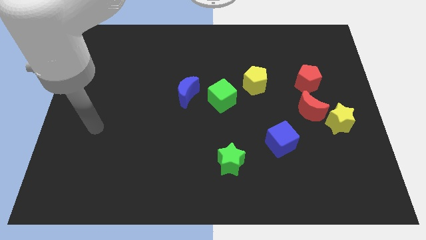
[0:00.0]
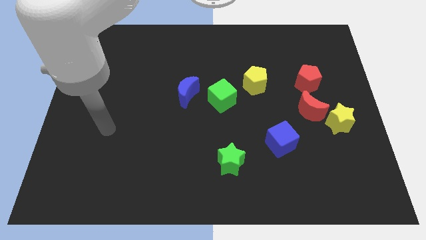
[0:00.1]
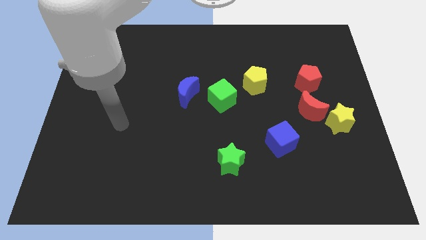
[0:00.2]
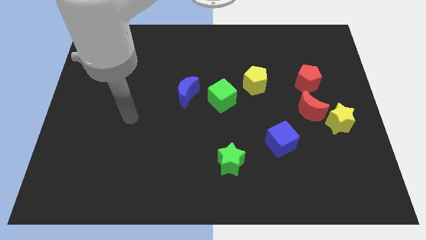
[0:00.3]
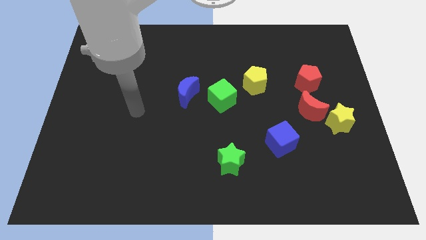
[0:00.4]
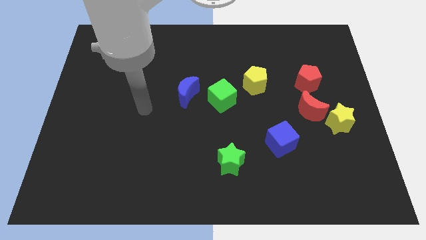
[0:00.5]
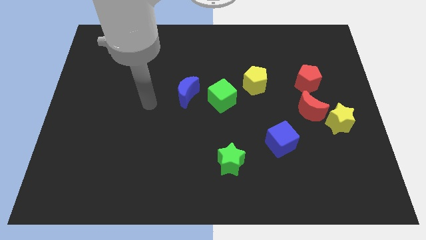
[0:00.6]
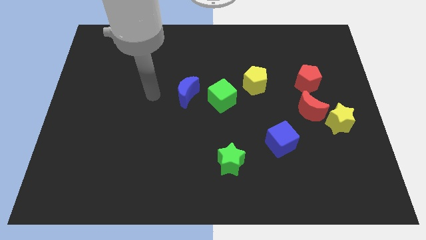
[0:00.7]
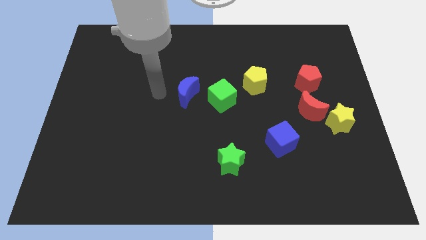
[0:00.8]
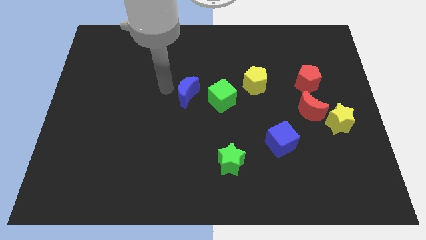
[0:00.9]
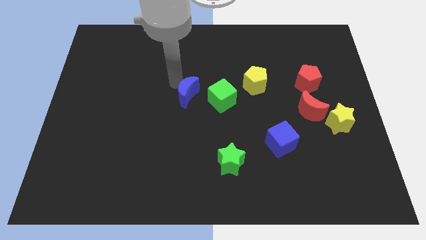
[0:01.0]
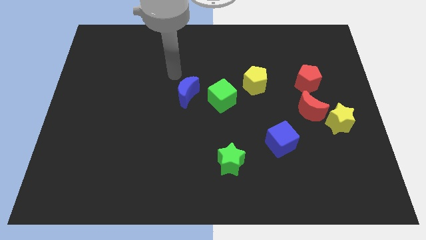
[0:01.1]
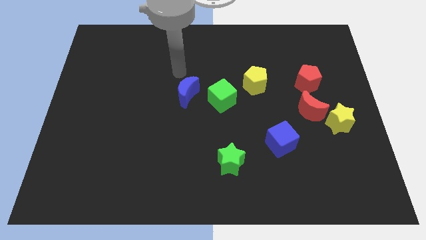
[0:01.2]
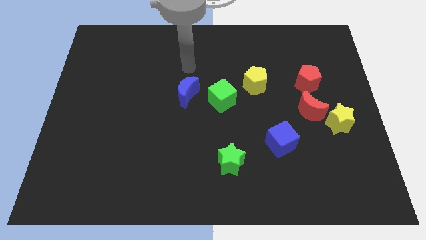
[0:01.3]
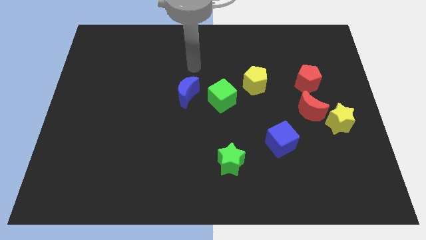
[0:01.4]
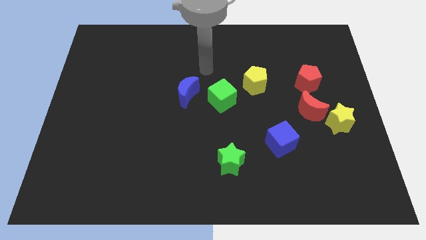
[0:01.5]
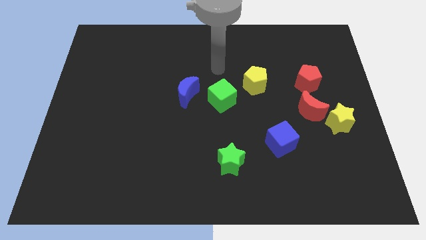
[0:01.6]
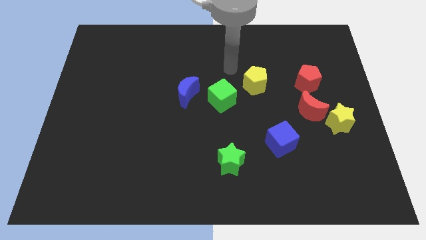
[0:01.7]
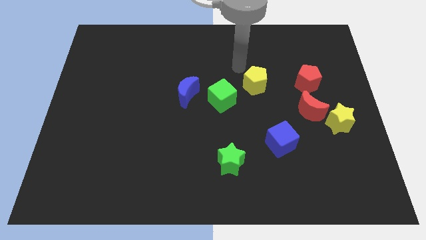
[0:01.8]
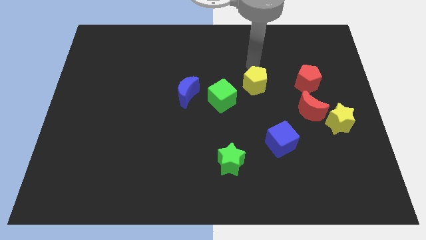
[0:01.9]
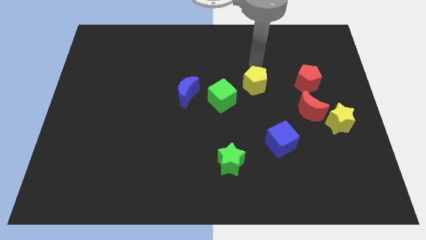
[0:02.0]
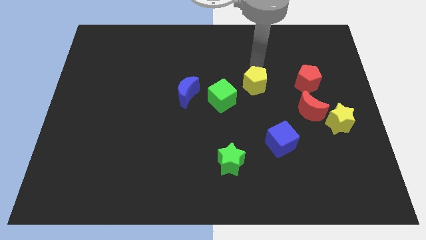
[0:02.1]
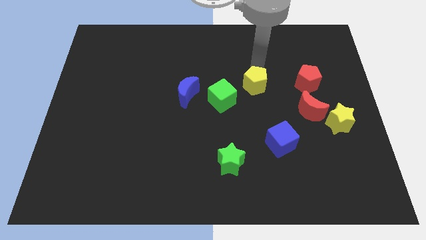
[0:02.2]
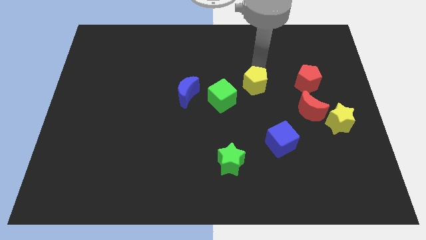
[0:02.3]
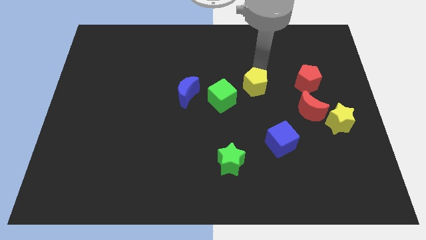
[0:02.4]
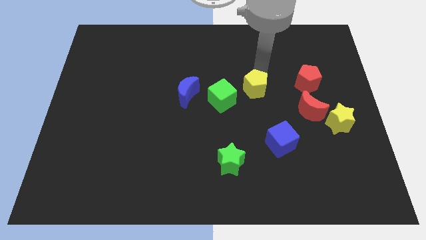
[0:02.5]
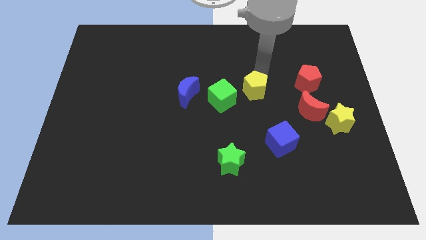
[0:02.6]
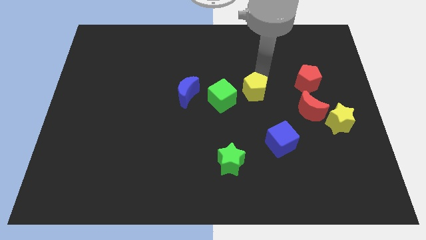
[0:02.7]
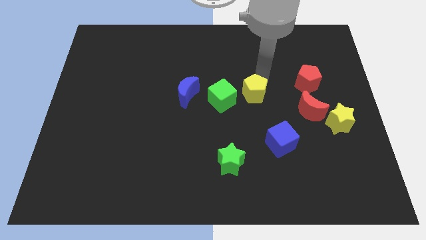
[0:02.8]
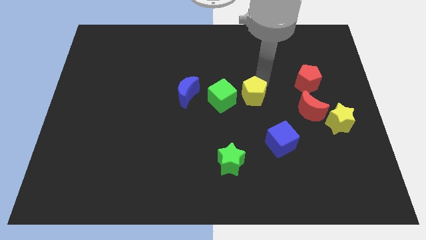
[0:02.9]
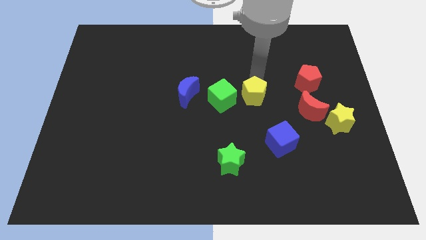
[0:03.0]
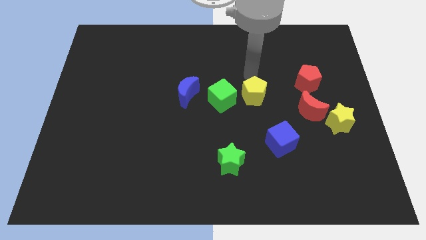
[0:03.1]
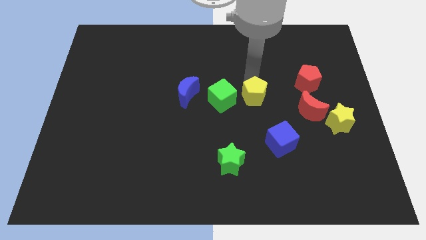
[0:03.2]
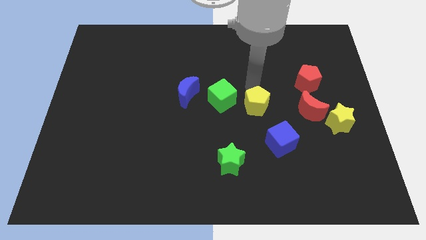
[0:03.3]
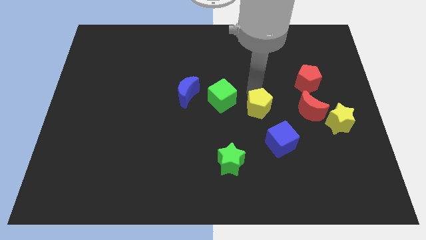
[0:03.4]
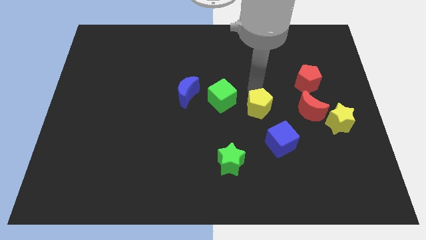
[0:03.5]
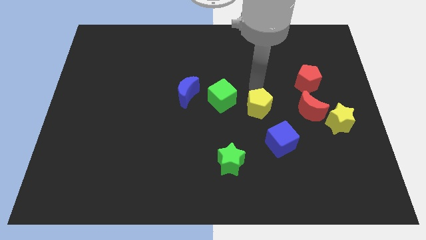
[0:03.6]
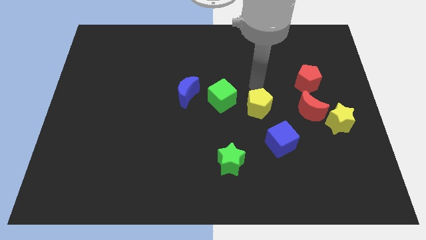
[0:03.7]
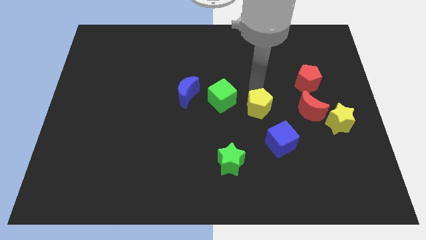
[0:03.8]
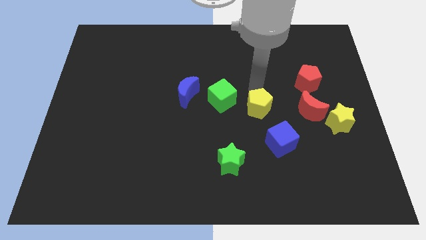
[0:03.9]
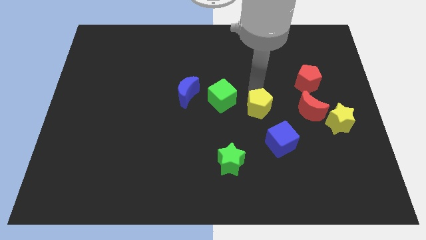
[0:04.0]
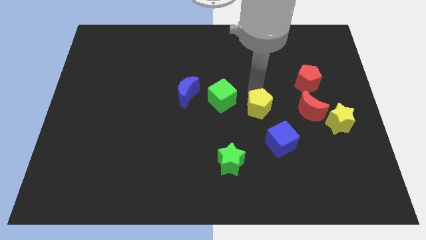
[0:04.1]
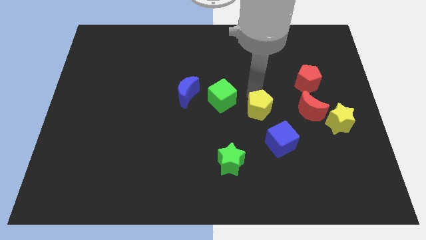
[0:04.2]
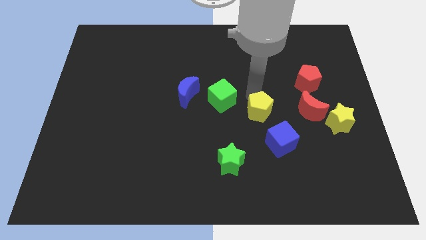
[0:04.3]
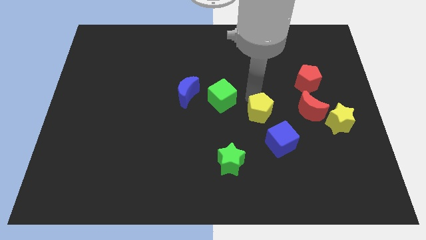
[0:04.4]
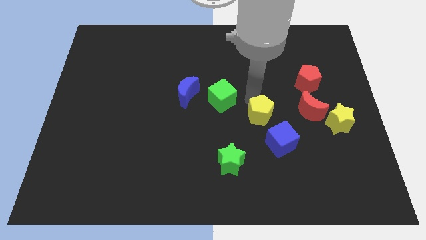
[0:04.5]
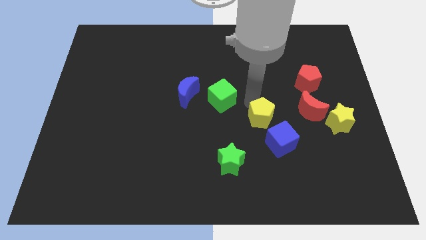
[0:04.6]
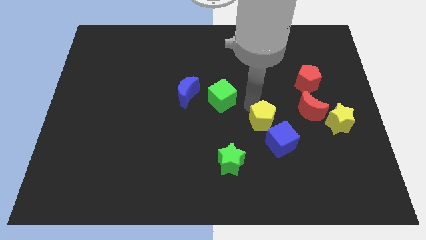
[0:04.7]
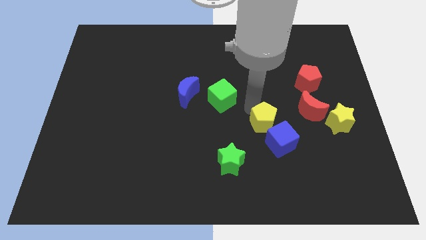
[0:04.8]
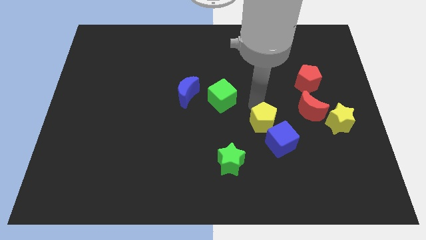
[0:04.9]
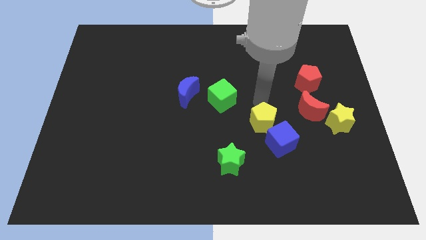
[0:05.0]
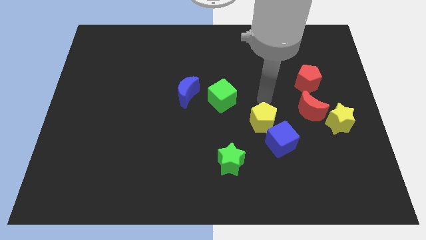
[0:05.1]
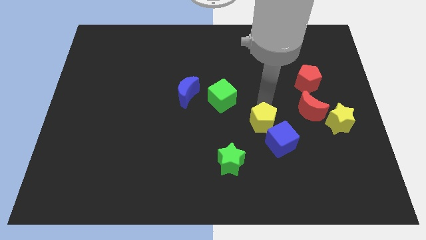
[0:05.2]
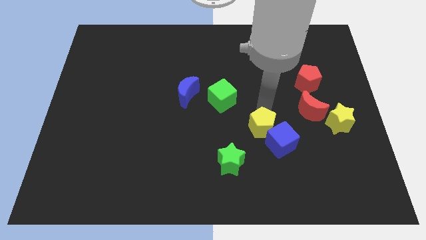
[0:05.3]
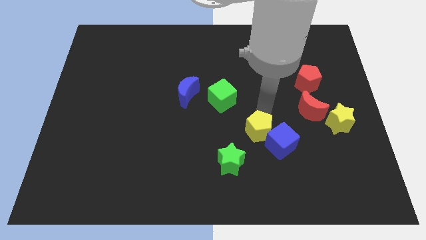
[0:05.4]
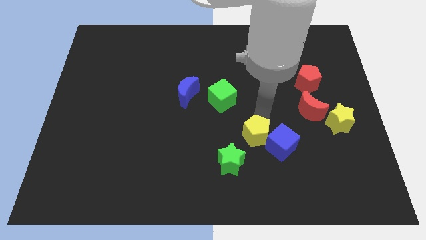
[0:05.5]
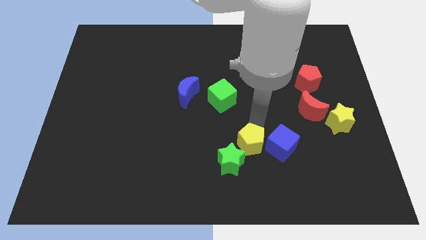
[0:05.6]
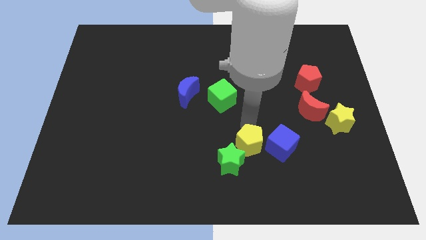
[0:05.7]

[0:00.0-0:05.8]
put the yellow pentagon right of the green star

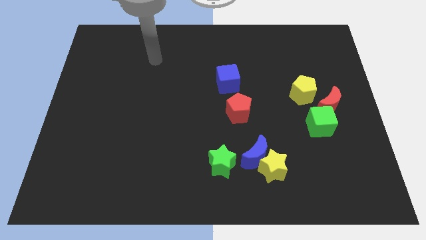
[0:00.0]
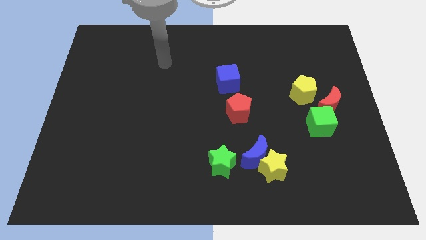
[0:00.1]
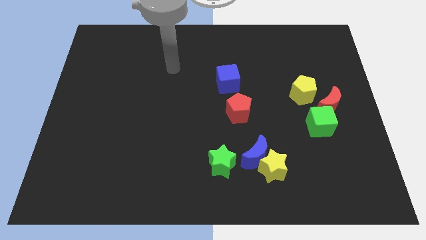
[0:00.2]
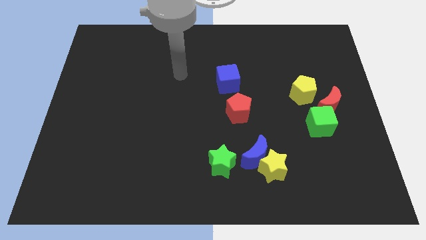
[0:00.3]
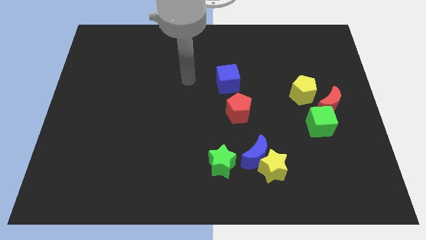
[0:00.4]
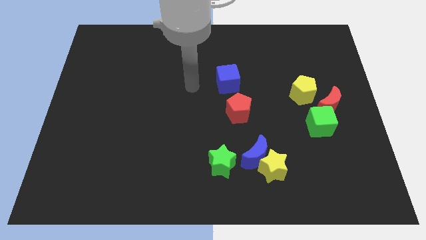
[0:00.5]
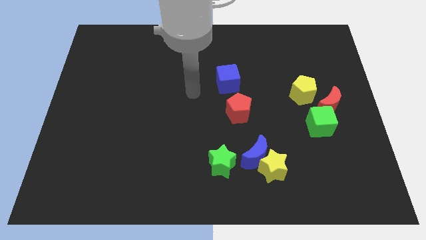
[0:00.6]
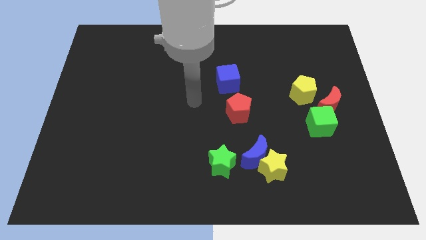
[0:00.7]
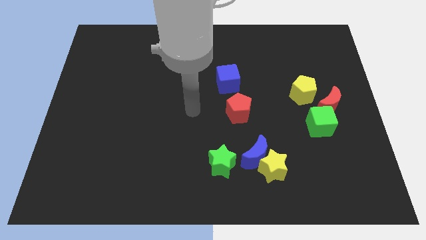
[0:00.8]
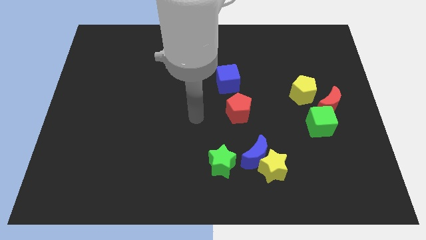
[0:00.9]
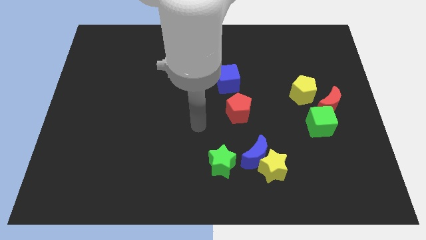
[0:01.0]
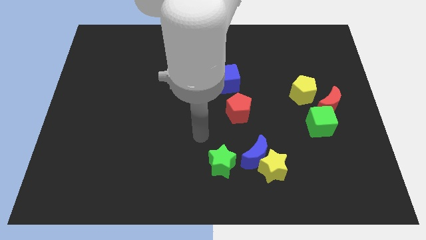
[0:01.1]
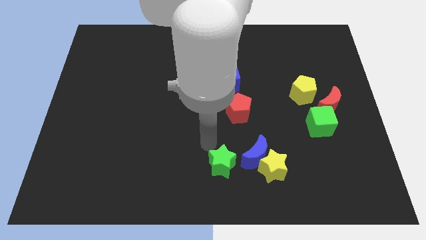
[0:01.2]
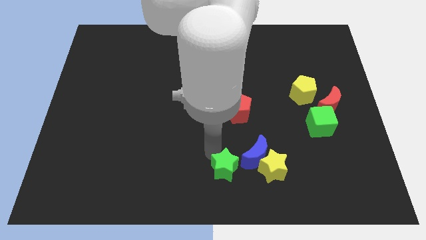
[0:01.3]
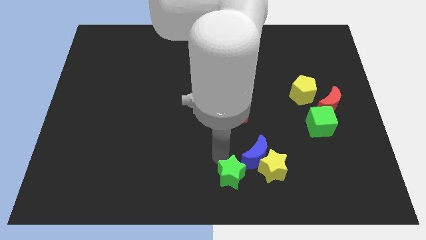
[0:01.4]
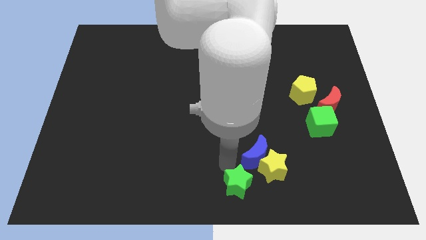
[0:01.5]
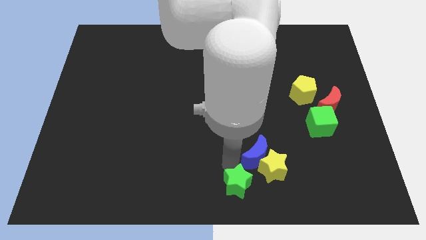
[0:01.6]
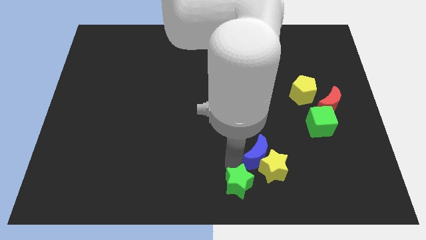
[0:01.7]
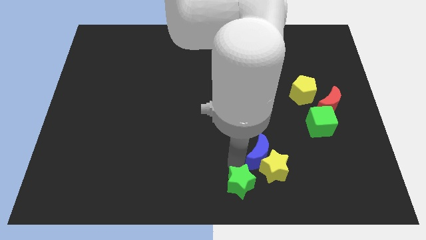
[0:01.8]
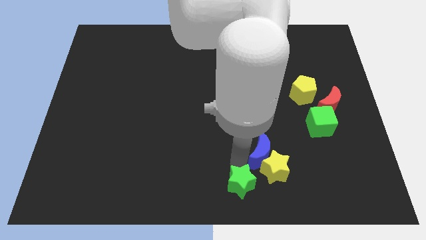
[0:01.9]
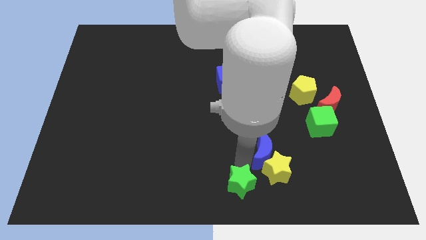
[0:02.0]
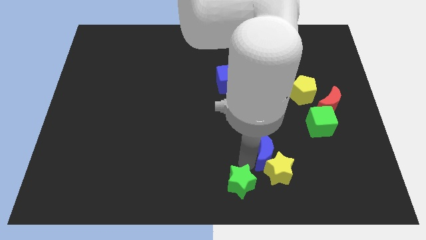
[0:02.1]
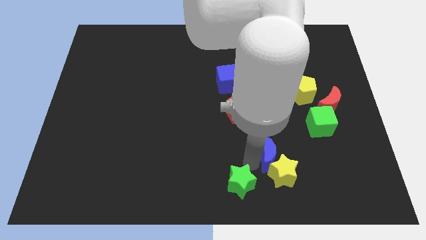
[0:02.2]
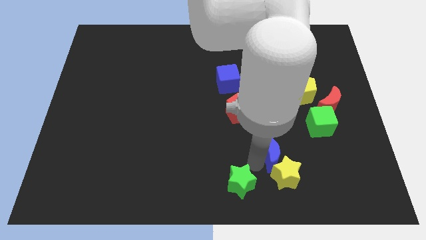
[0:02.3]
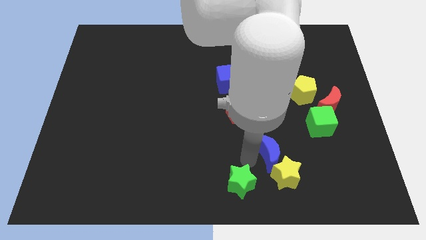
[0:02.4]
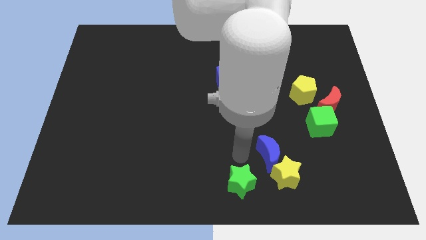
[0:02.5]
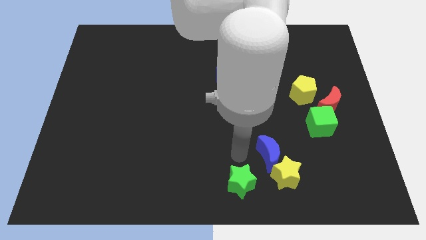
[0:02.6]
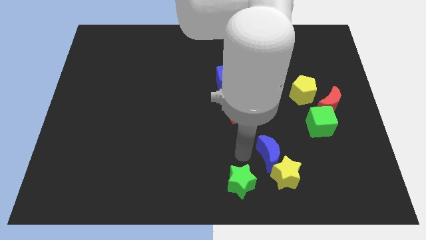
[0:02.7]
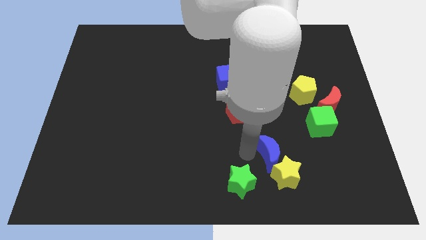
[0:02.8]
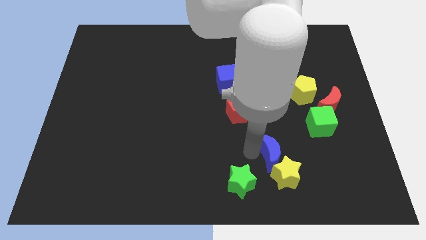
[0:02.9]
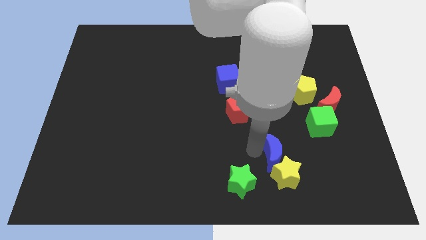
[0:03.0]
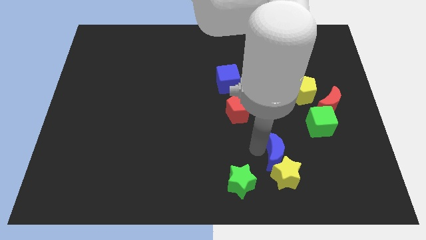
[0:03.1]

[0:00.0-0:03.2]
move the blue moon to the top right side of the yellow star
